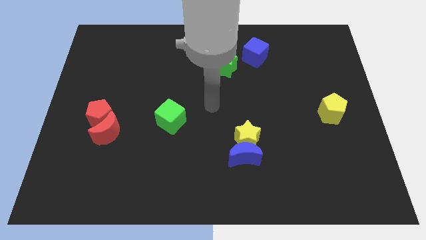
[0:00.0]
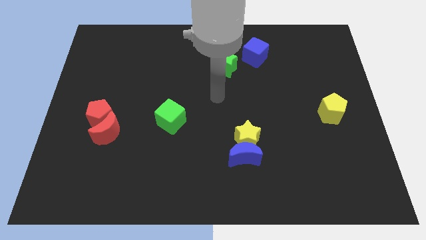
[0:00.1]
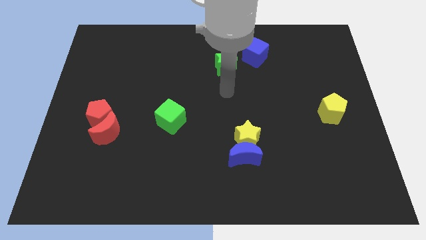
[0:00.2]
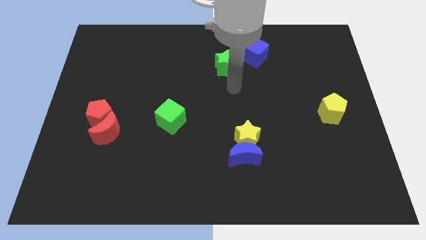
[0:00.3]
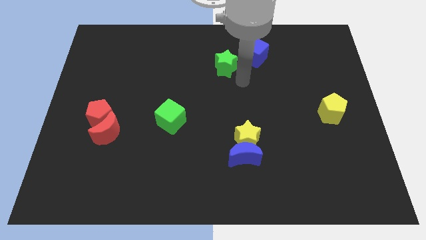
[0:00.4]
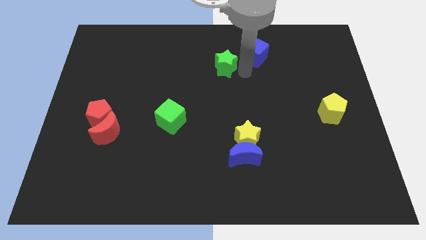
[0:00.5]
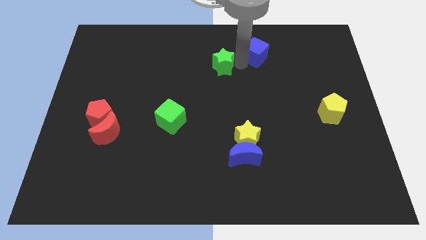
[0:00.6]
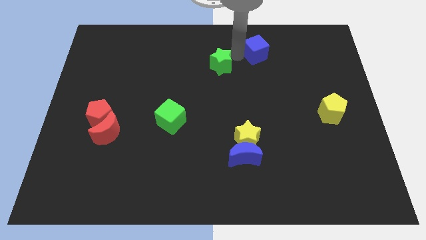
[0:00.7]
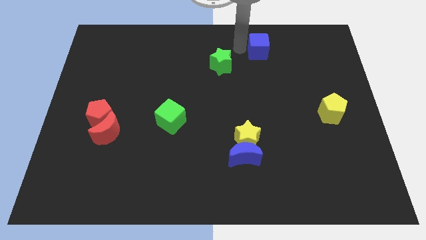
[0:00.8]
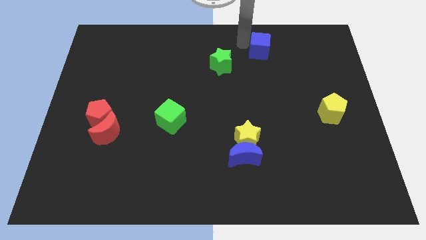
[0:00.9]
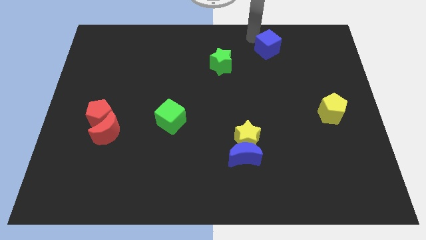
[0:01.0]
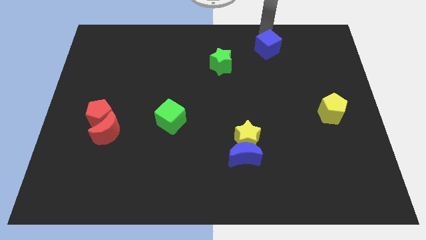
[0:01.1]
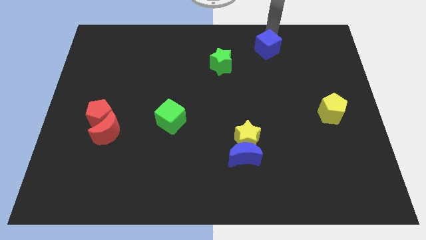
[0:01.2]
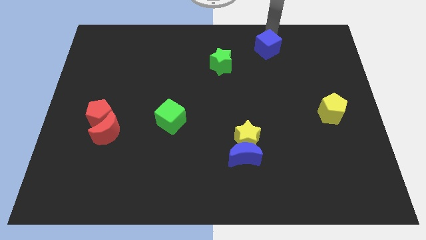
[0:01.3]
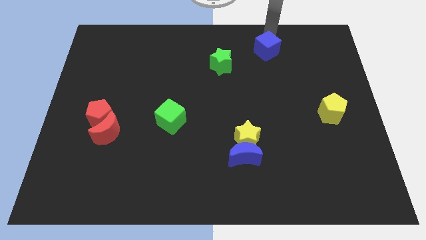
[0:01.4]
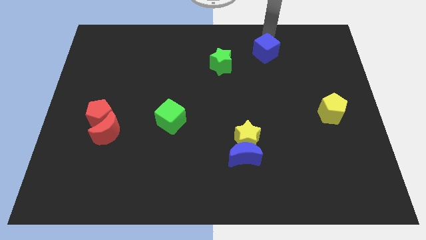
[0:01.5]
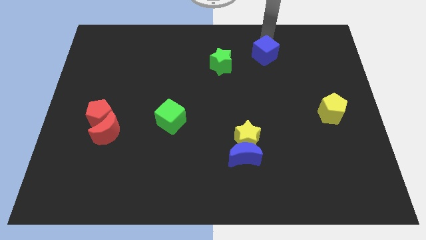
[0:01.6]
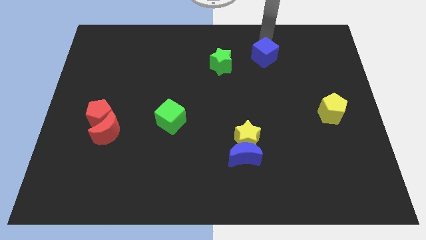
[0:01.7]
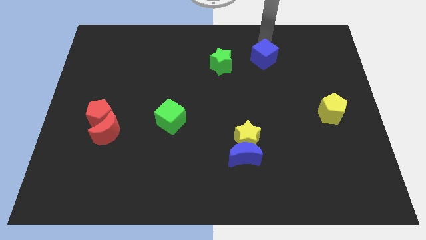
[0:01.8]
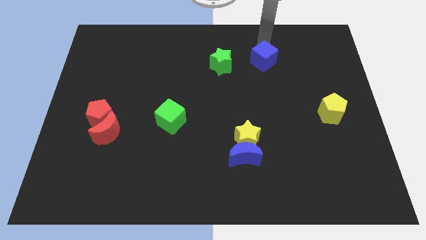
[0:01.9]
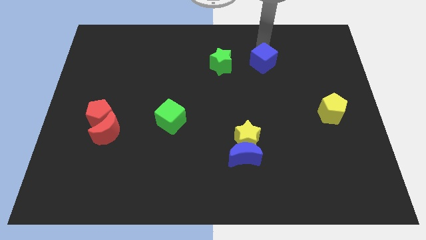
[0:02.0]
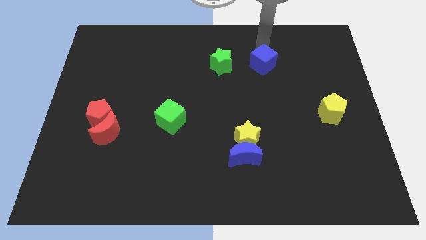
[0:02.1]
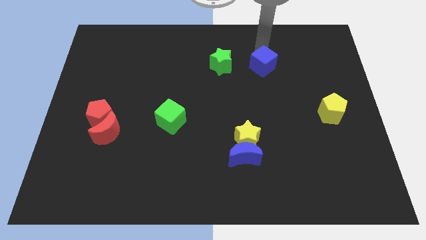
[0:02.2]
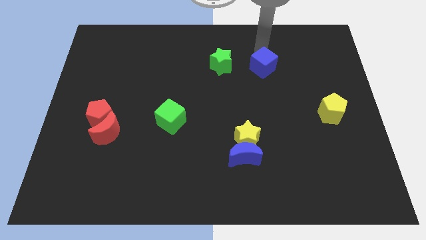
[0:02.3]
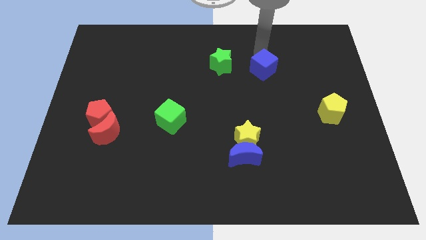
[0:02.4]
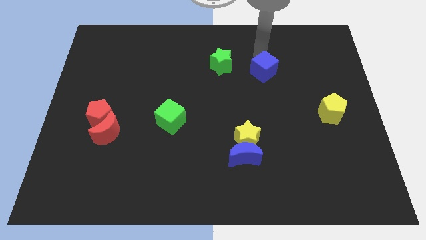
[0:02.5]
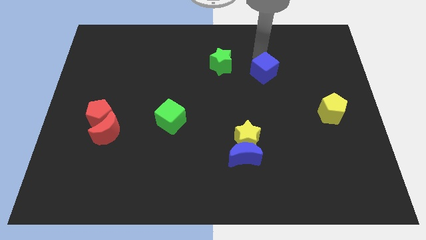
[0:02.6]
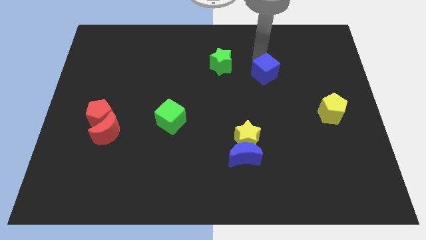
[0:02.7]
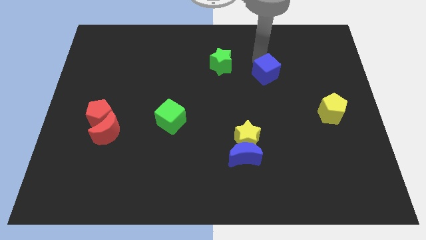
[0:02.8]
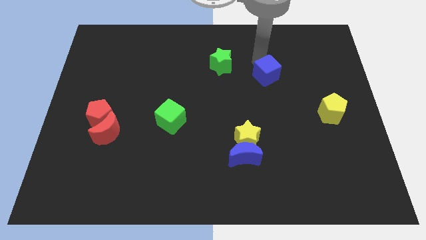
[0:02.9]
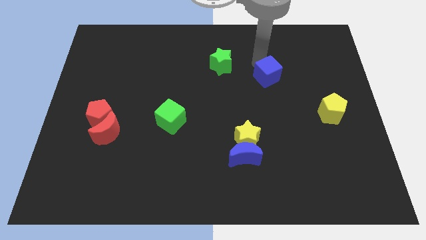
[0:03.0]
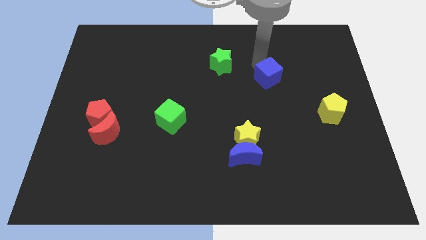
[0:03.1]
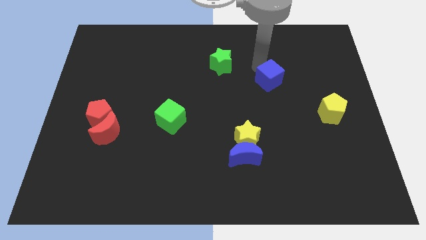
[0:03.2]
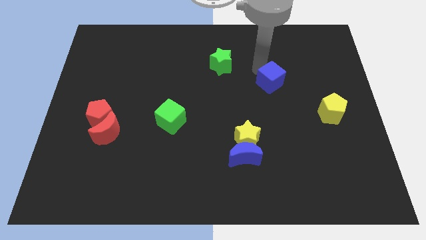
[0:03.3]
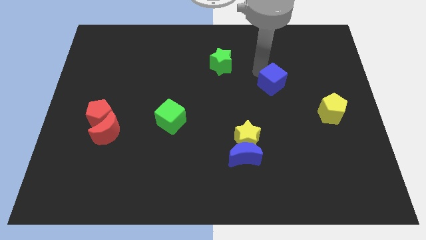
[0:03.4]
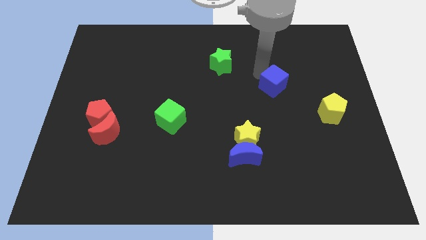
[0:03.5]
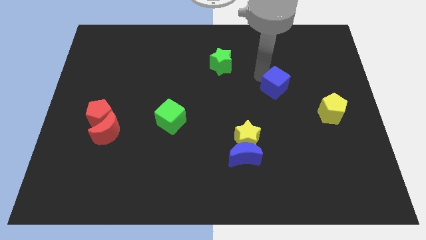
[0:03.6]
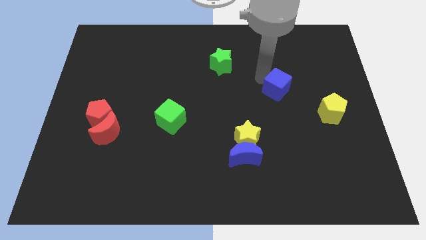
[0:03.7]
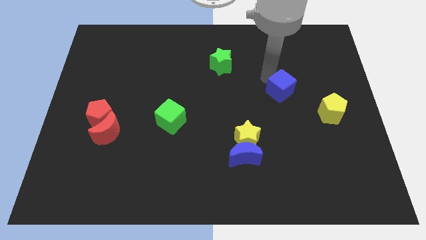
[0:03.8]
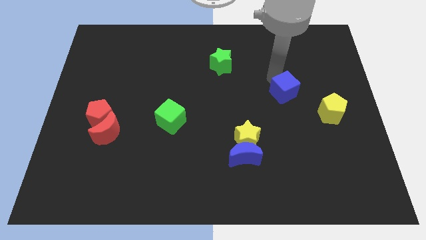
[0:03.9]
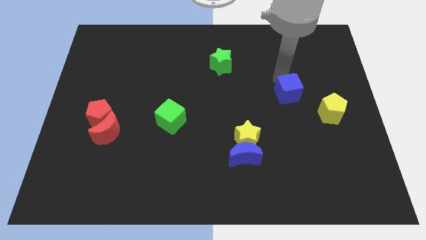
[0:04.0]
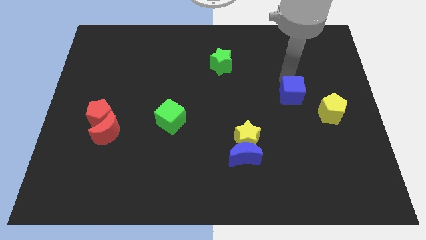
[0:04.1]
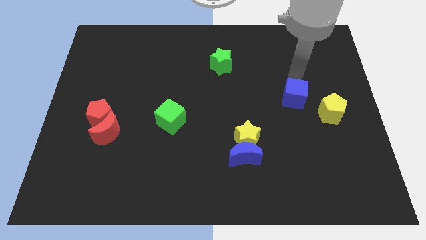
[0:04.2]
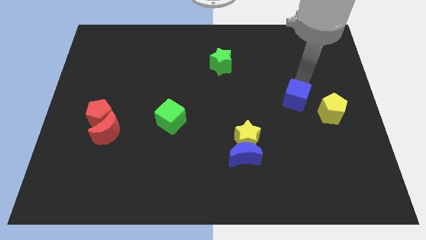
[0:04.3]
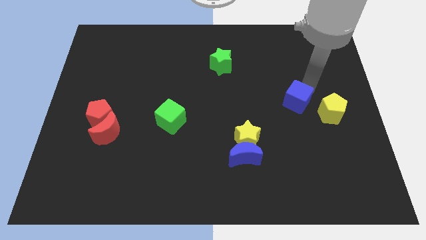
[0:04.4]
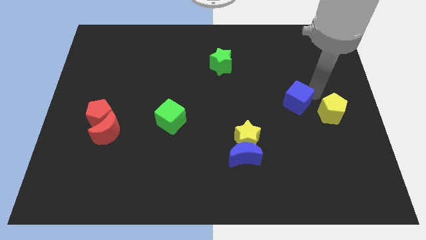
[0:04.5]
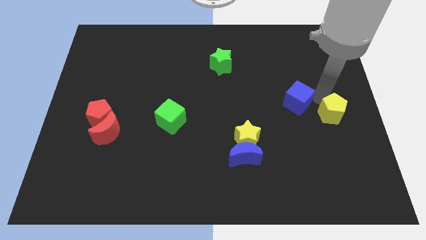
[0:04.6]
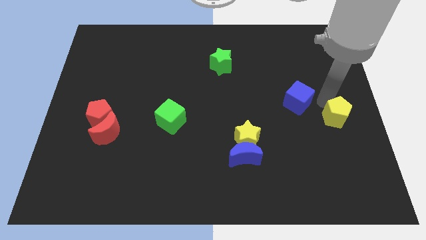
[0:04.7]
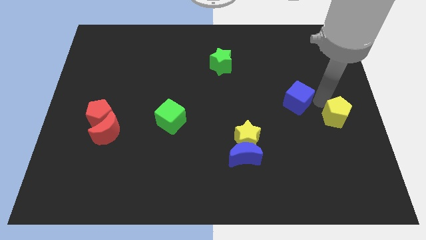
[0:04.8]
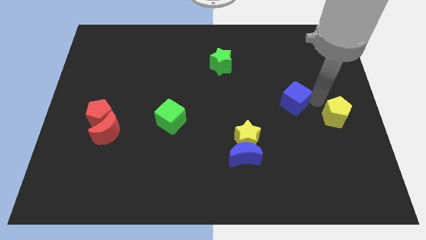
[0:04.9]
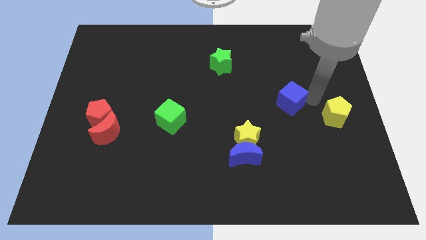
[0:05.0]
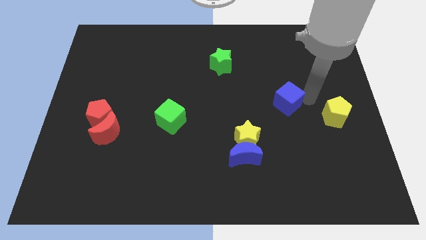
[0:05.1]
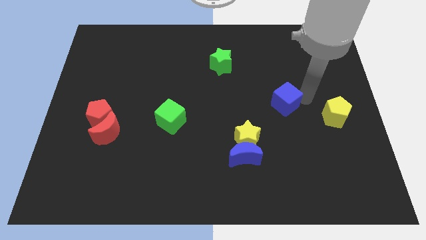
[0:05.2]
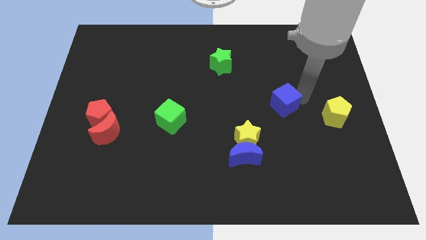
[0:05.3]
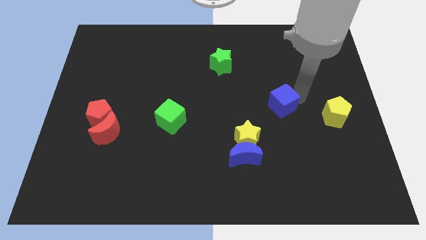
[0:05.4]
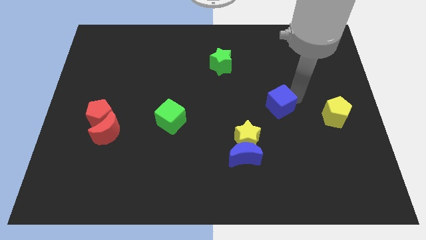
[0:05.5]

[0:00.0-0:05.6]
put the blue cube to the top right of the yellow star

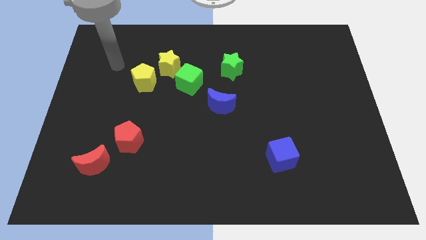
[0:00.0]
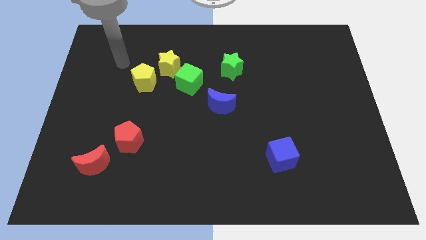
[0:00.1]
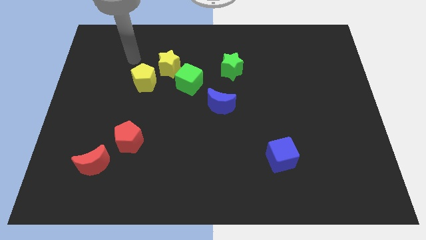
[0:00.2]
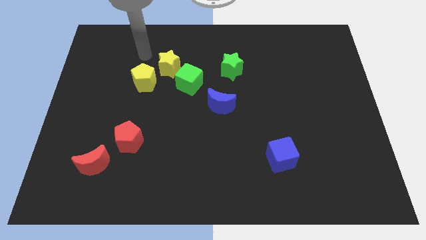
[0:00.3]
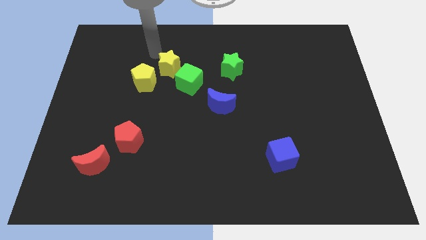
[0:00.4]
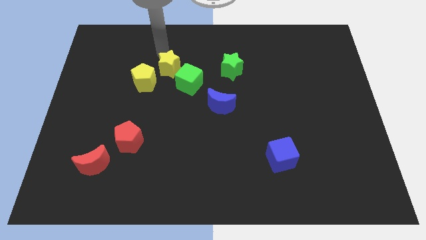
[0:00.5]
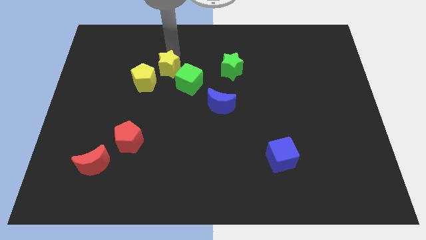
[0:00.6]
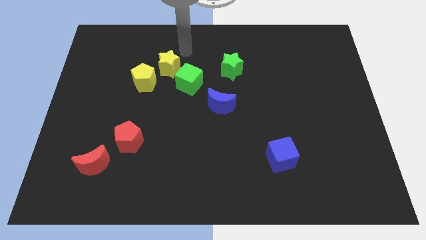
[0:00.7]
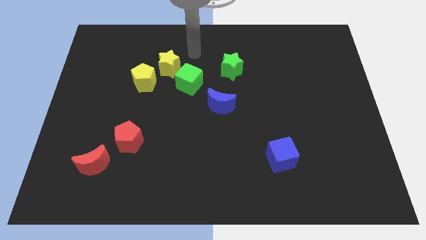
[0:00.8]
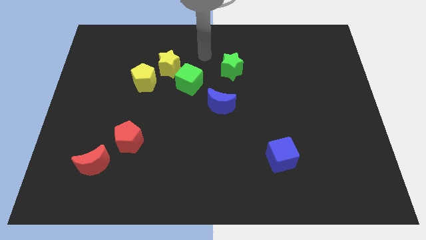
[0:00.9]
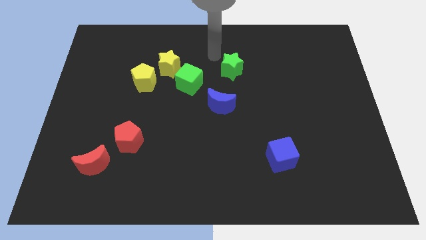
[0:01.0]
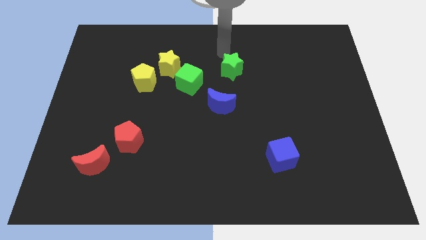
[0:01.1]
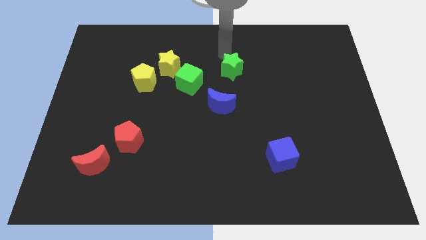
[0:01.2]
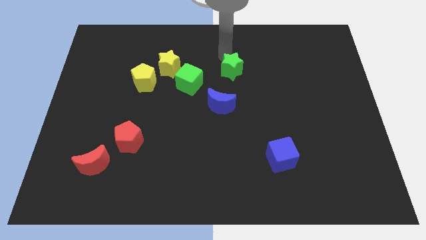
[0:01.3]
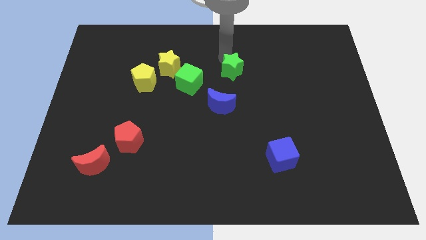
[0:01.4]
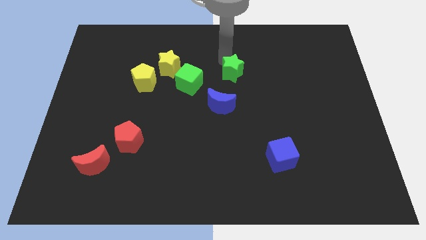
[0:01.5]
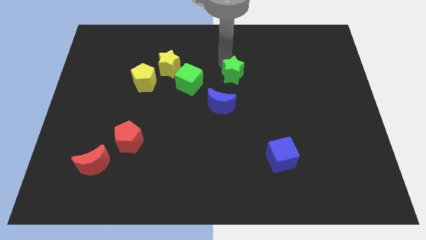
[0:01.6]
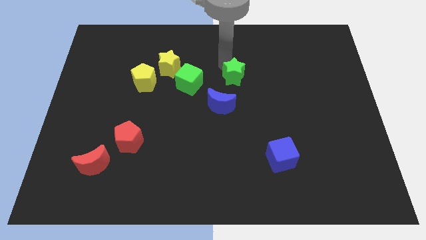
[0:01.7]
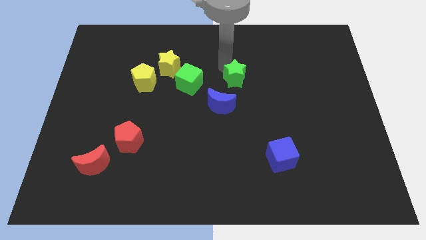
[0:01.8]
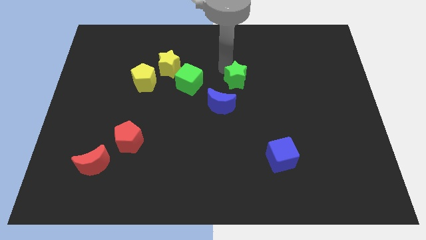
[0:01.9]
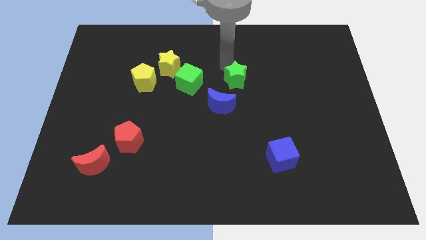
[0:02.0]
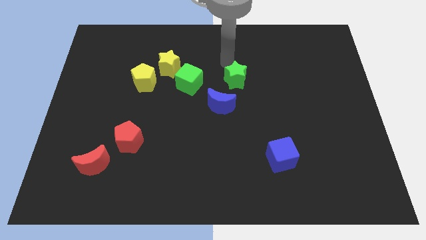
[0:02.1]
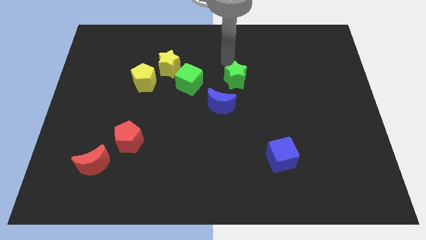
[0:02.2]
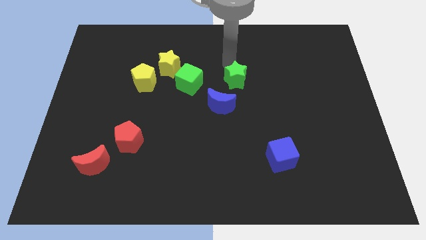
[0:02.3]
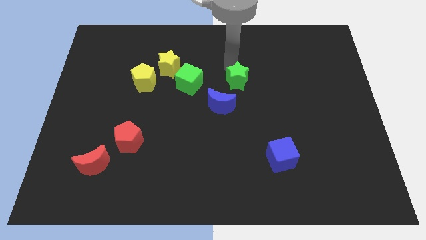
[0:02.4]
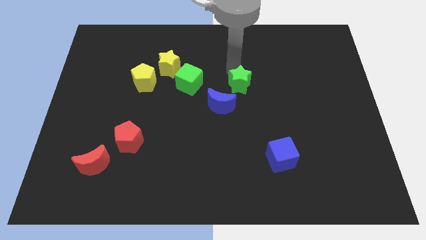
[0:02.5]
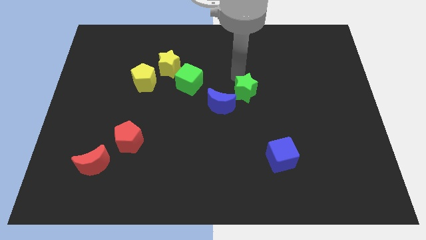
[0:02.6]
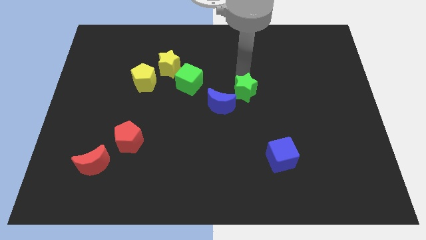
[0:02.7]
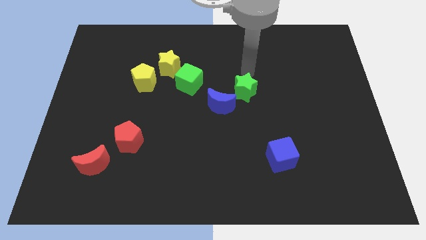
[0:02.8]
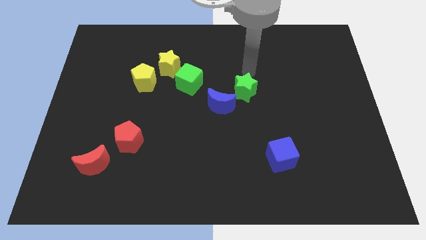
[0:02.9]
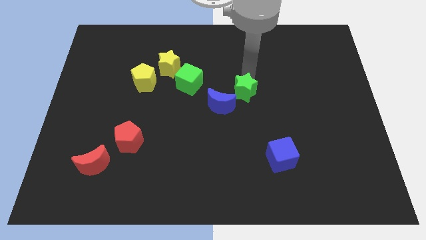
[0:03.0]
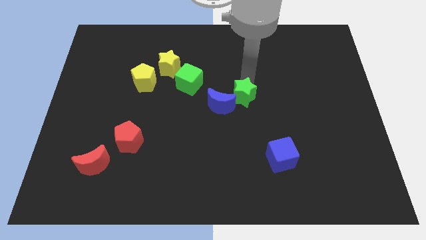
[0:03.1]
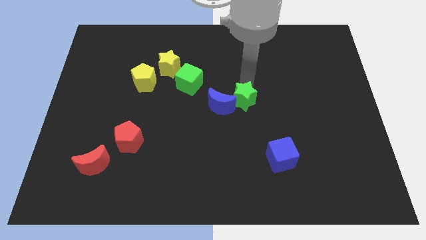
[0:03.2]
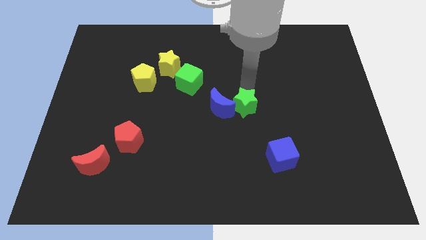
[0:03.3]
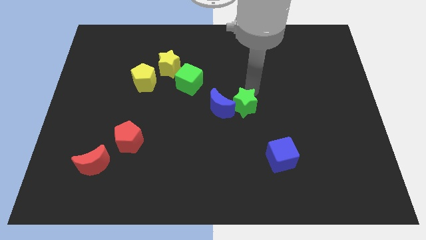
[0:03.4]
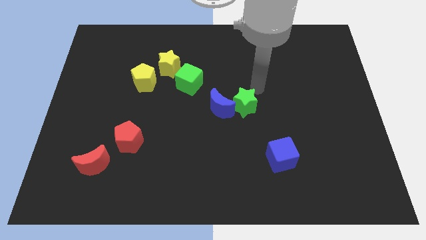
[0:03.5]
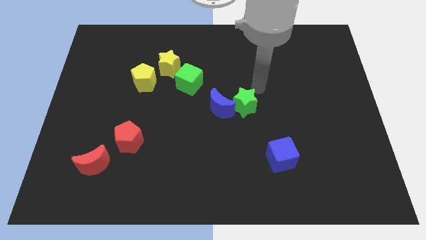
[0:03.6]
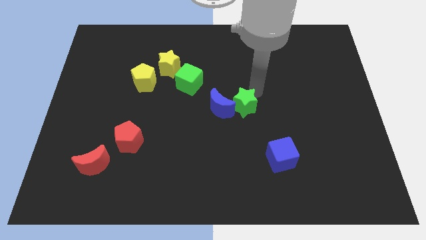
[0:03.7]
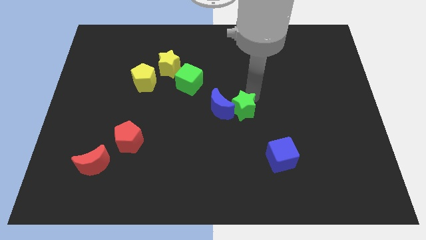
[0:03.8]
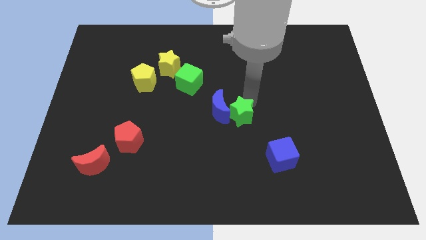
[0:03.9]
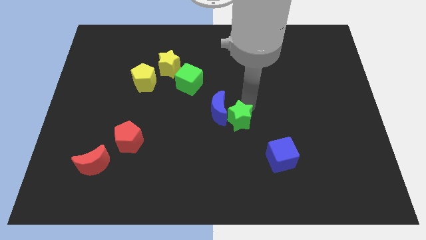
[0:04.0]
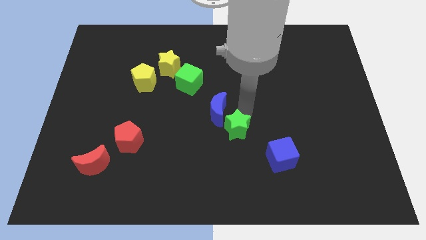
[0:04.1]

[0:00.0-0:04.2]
move the green star to the bottom side of the blue moon
